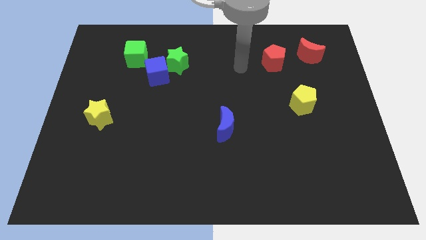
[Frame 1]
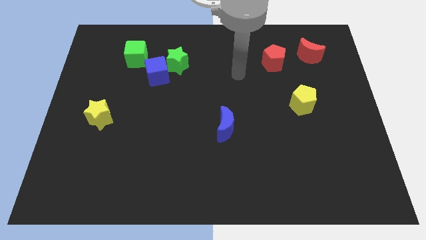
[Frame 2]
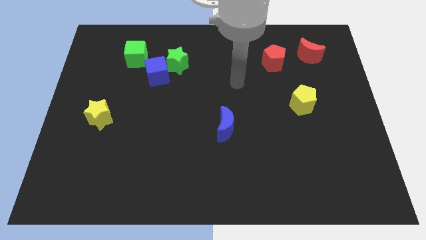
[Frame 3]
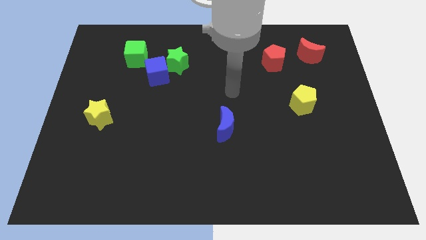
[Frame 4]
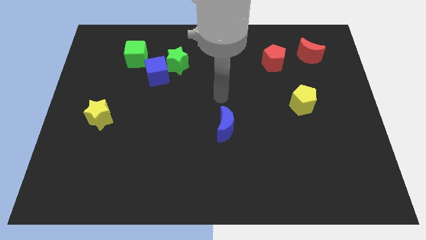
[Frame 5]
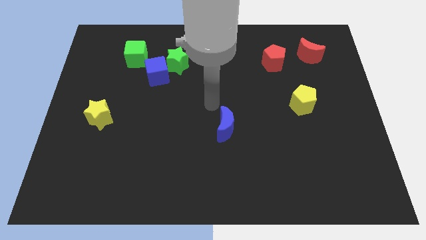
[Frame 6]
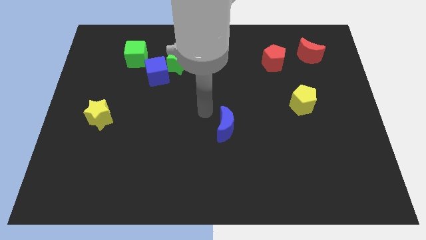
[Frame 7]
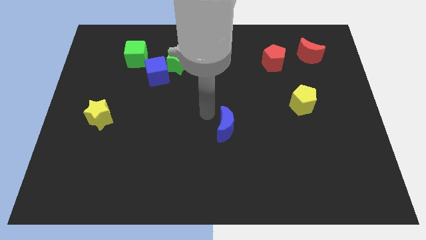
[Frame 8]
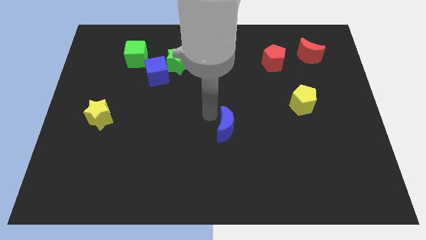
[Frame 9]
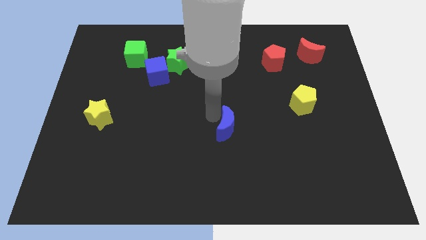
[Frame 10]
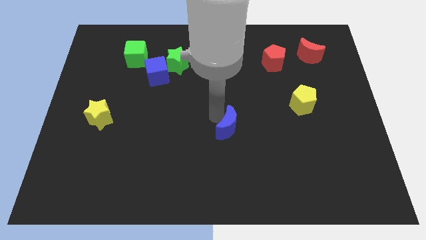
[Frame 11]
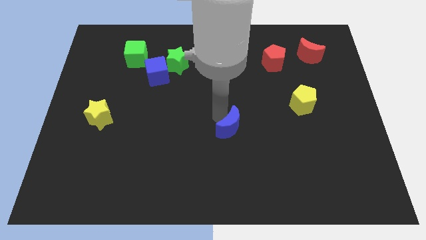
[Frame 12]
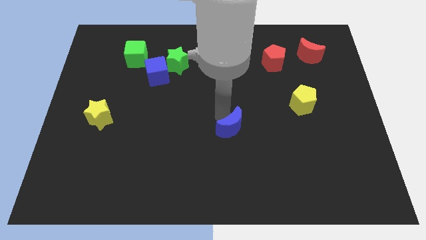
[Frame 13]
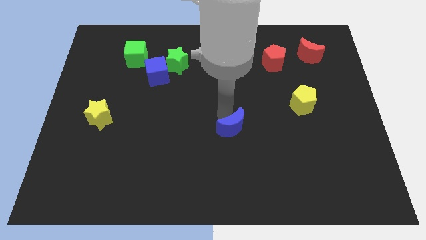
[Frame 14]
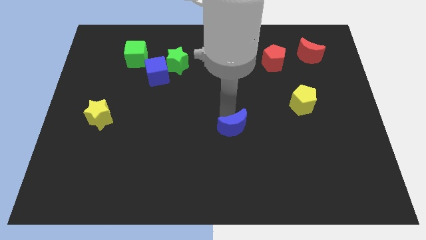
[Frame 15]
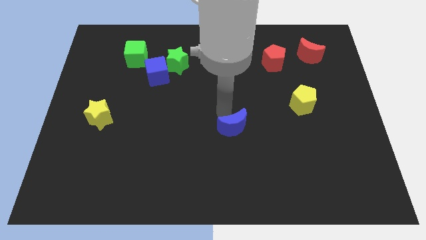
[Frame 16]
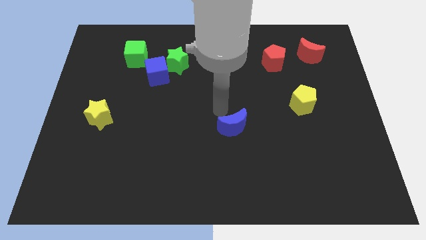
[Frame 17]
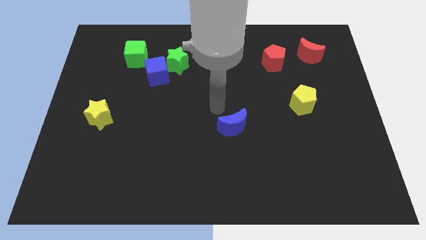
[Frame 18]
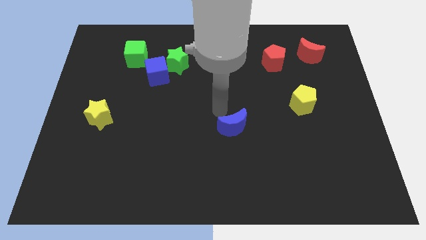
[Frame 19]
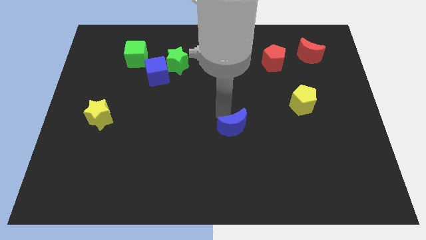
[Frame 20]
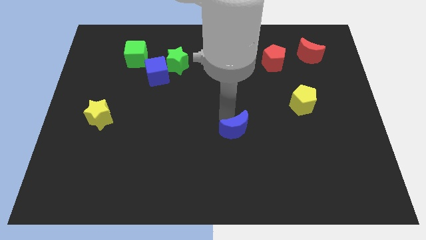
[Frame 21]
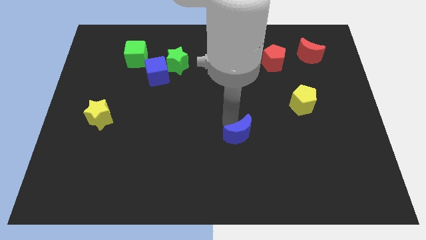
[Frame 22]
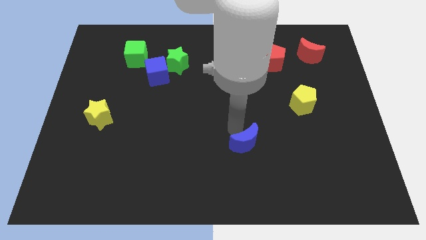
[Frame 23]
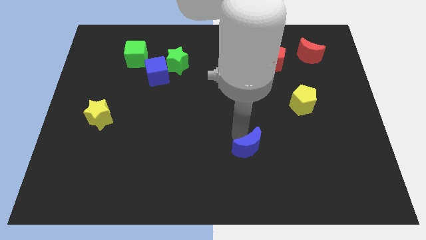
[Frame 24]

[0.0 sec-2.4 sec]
slide the blue moon down and then to the right slightly

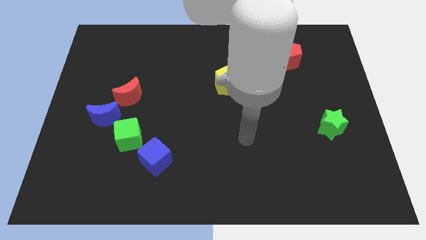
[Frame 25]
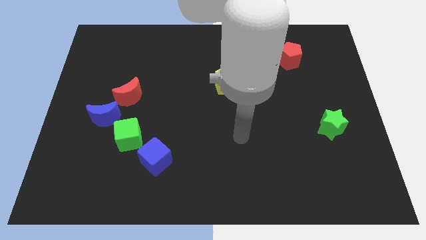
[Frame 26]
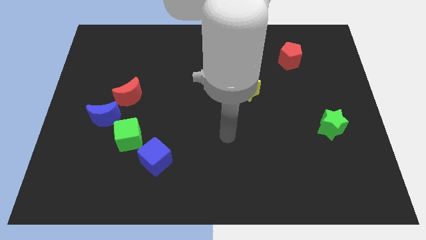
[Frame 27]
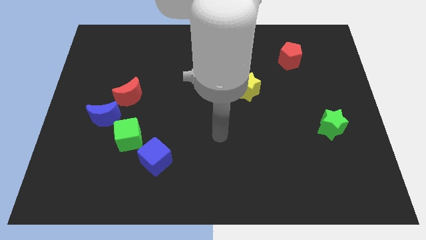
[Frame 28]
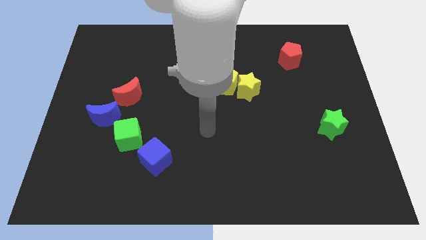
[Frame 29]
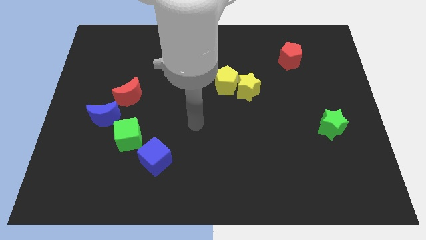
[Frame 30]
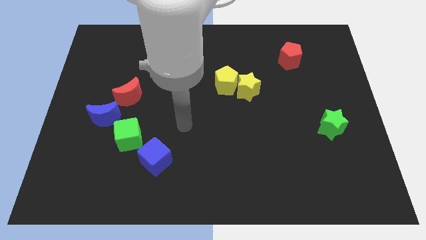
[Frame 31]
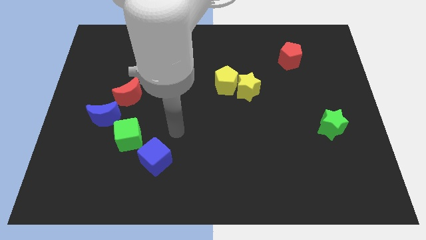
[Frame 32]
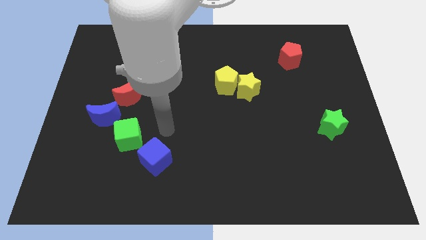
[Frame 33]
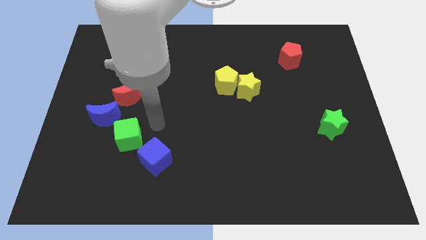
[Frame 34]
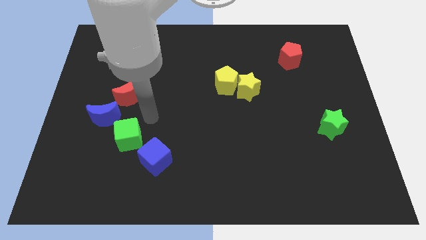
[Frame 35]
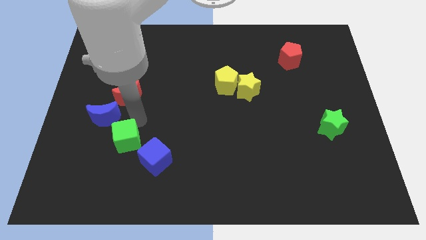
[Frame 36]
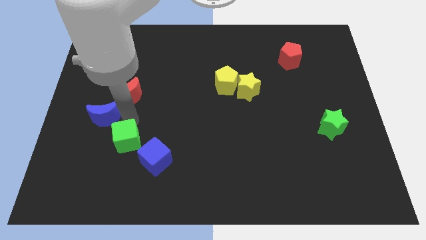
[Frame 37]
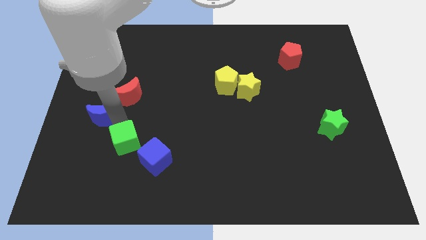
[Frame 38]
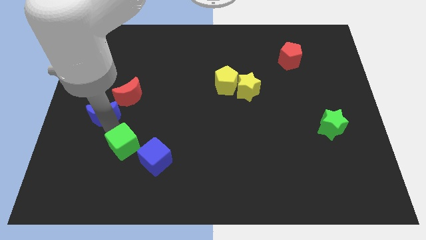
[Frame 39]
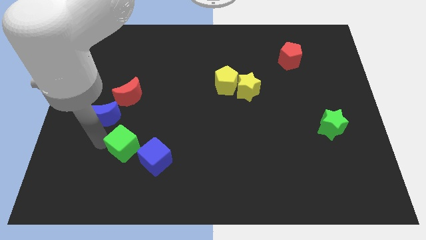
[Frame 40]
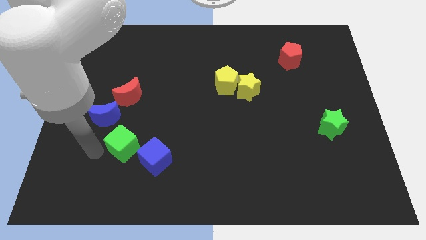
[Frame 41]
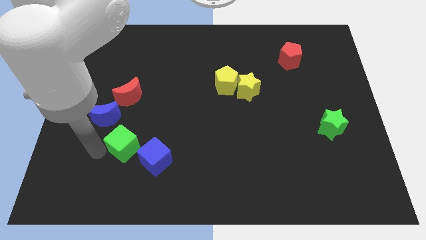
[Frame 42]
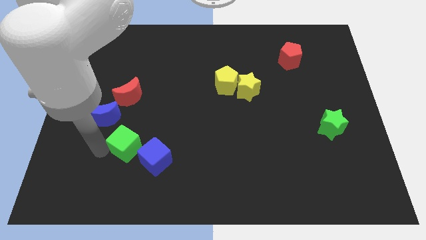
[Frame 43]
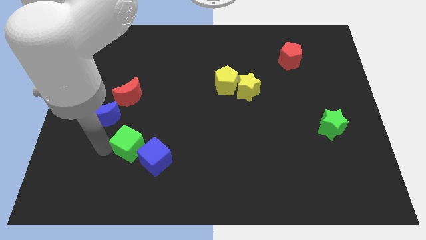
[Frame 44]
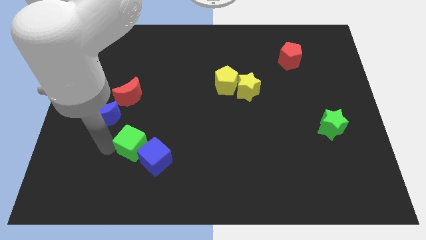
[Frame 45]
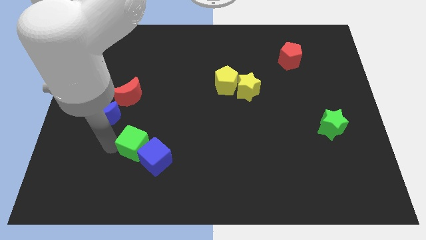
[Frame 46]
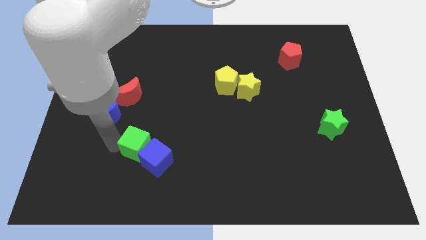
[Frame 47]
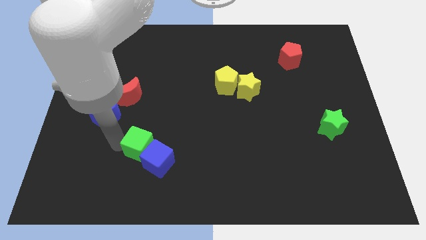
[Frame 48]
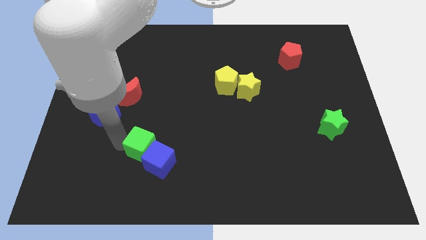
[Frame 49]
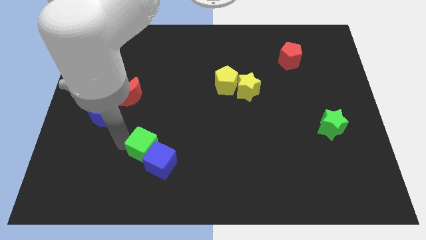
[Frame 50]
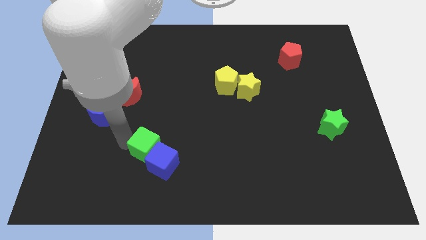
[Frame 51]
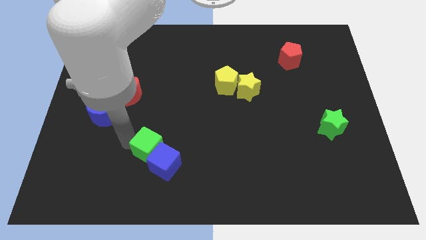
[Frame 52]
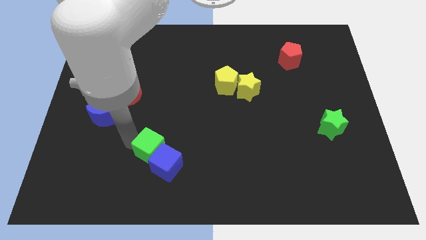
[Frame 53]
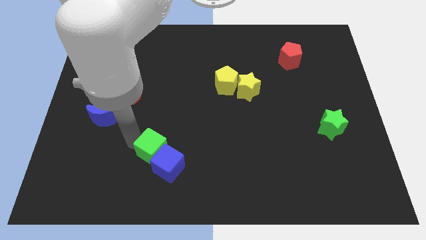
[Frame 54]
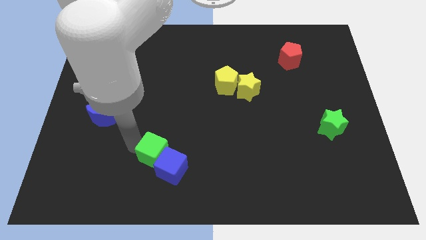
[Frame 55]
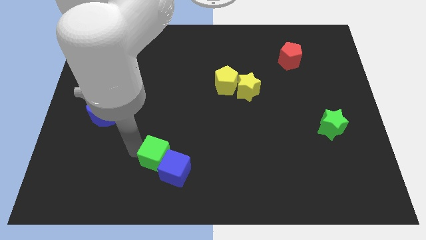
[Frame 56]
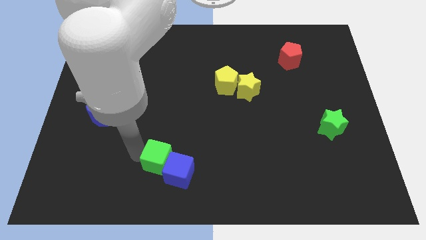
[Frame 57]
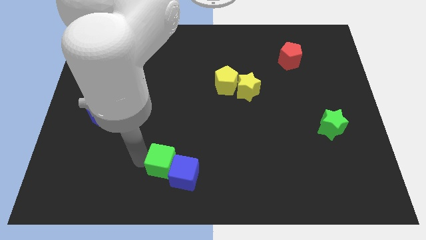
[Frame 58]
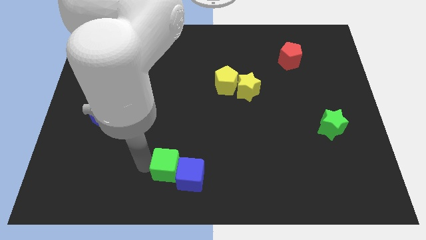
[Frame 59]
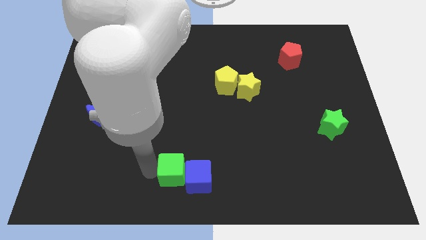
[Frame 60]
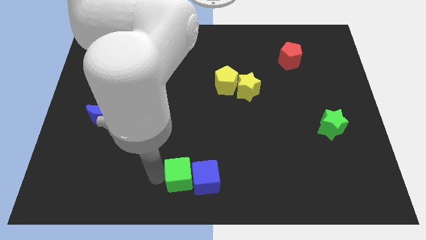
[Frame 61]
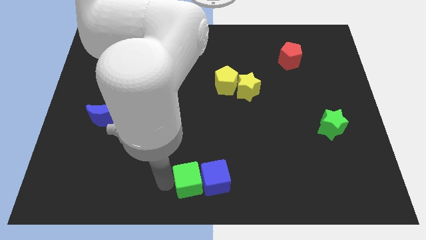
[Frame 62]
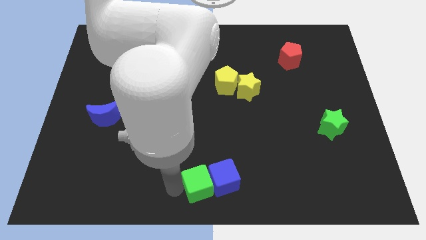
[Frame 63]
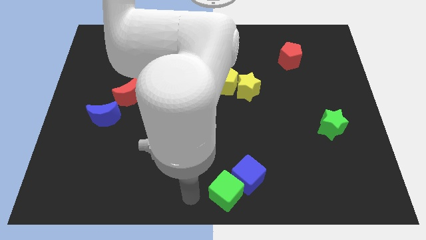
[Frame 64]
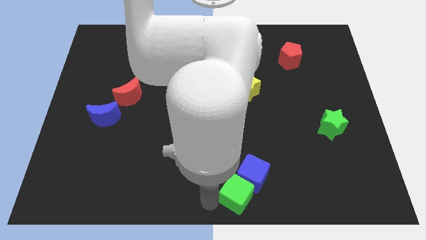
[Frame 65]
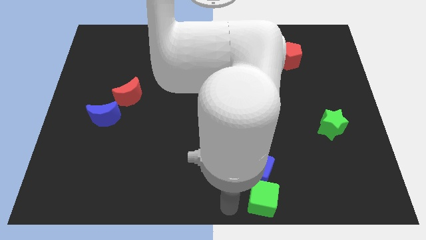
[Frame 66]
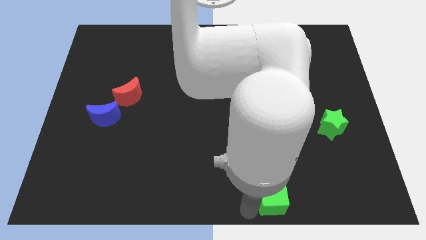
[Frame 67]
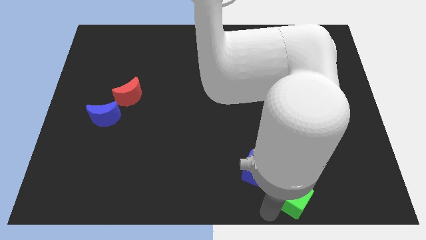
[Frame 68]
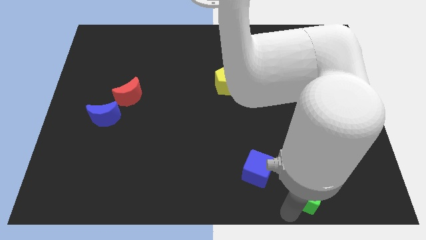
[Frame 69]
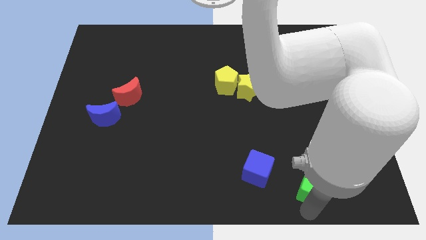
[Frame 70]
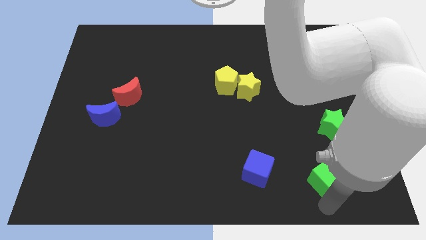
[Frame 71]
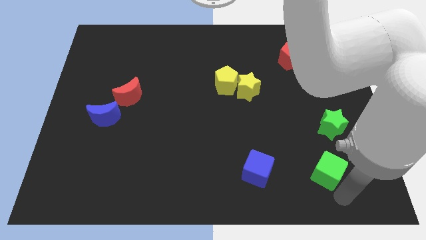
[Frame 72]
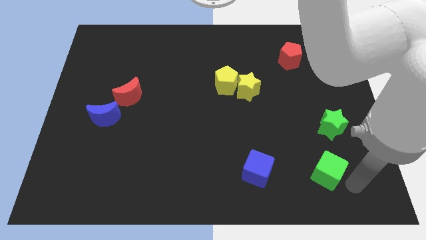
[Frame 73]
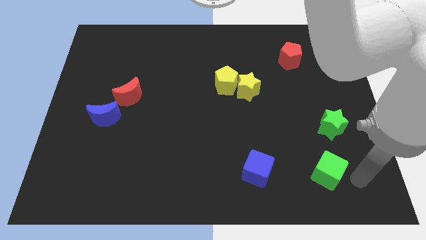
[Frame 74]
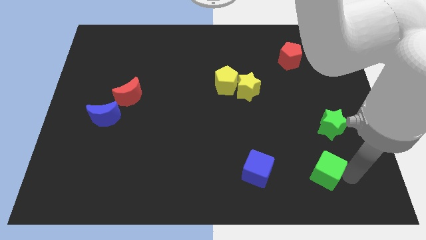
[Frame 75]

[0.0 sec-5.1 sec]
push the green cube to the right

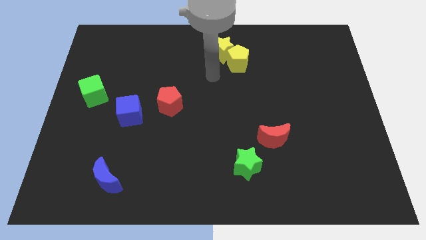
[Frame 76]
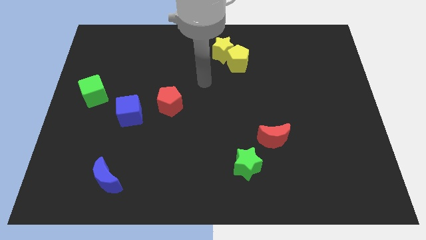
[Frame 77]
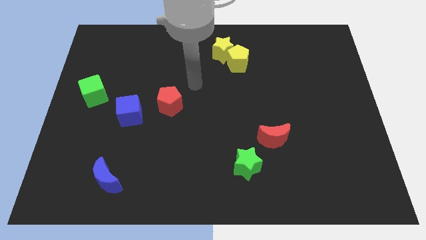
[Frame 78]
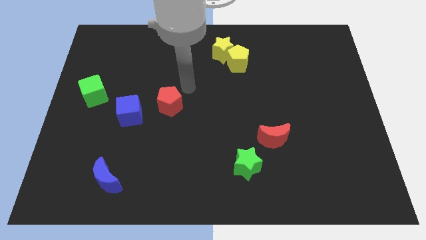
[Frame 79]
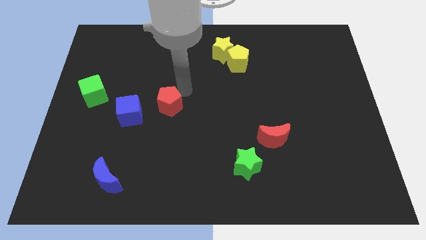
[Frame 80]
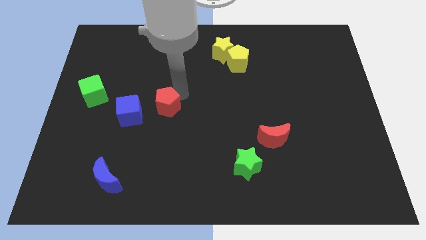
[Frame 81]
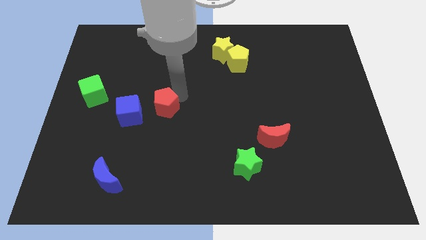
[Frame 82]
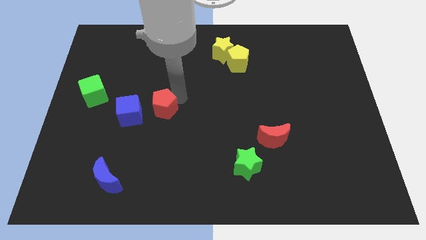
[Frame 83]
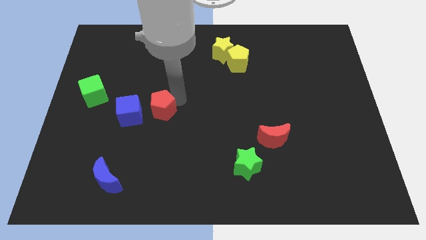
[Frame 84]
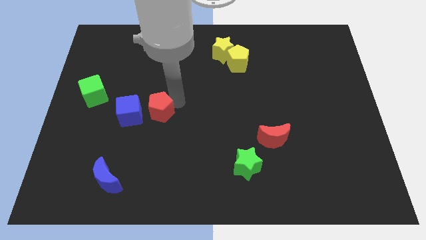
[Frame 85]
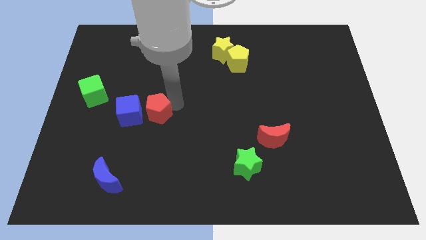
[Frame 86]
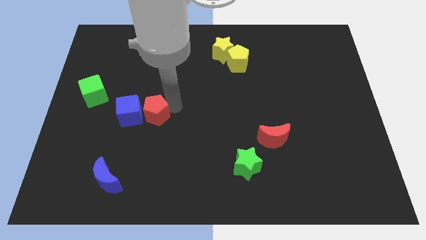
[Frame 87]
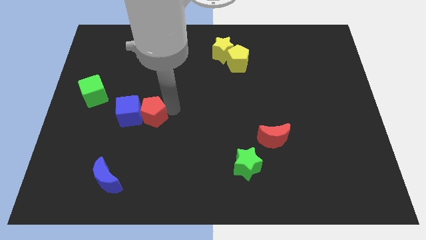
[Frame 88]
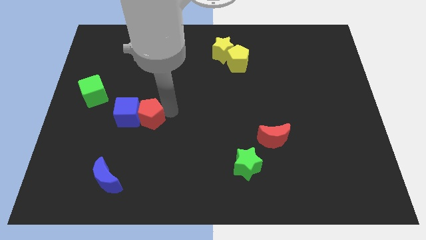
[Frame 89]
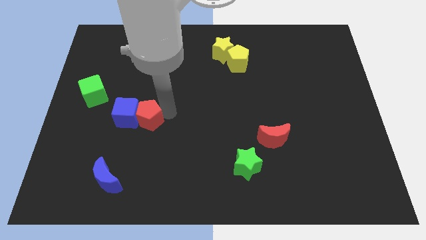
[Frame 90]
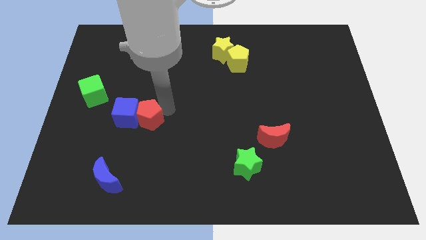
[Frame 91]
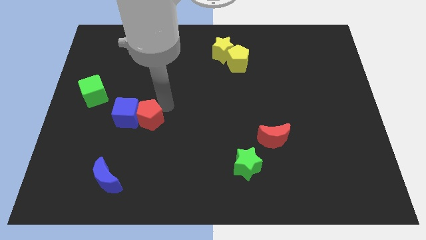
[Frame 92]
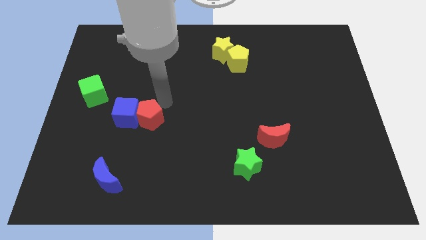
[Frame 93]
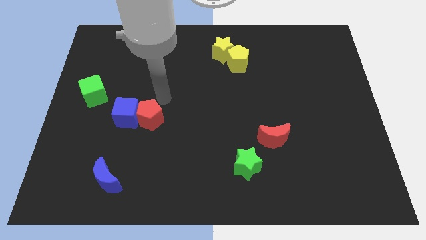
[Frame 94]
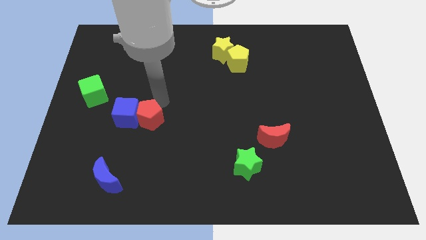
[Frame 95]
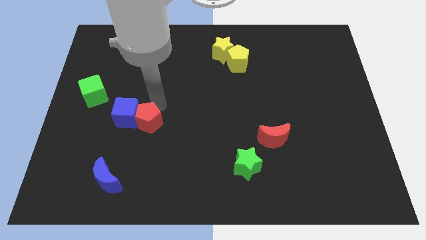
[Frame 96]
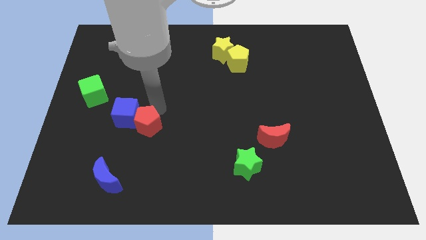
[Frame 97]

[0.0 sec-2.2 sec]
push the red pentagon a little downwards and left
